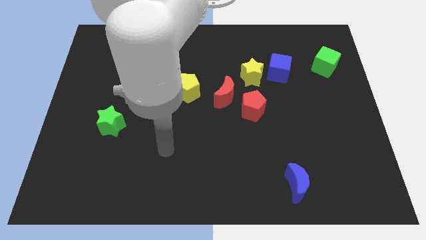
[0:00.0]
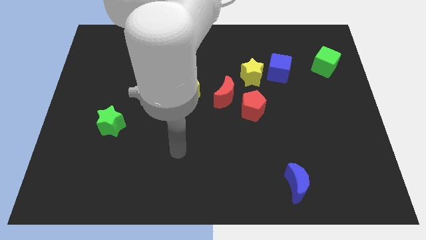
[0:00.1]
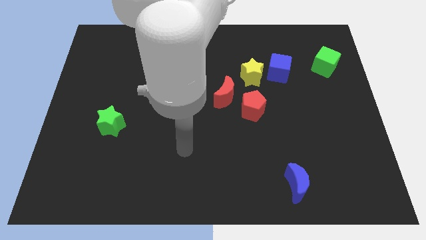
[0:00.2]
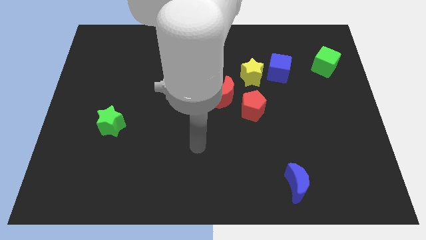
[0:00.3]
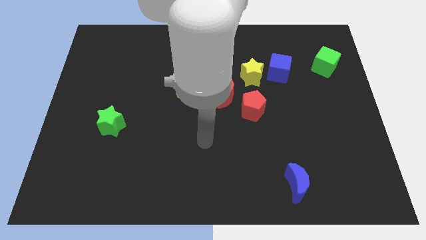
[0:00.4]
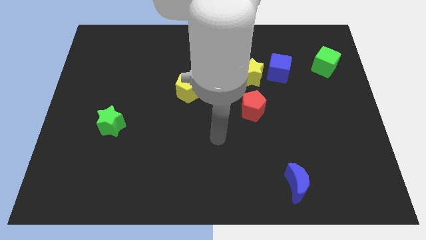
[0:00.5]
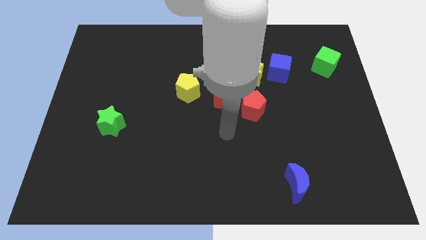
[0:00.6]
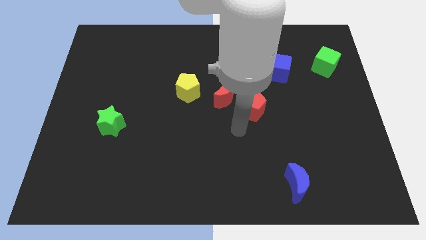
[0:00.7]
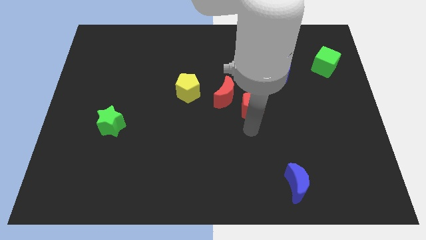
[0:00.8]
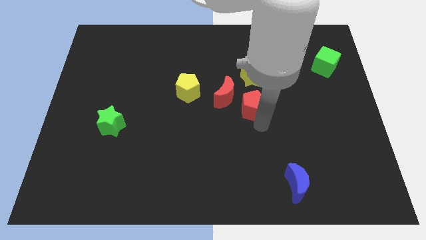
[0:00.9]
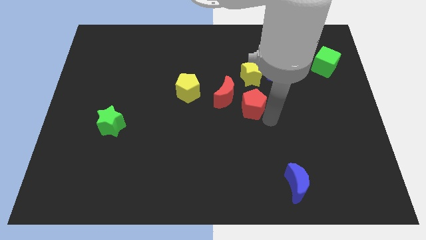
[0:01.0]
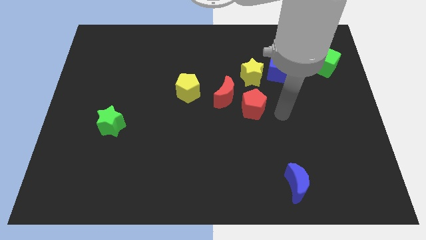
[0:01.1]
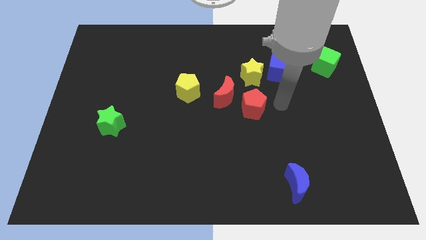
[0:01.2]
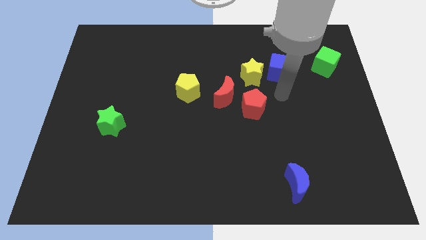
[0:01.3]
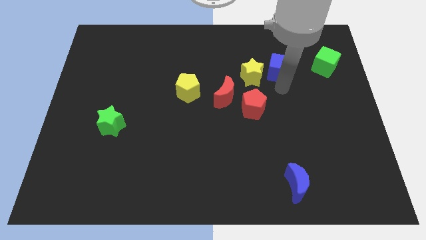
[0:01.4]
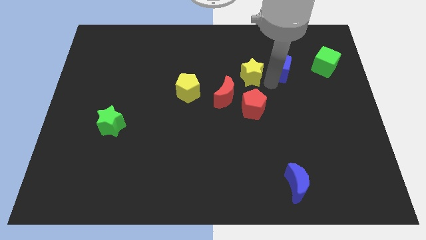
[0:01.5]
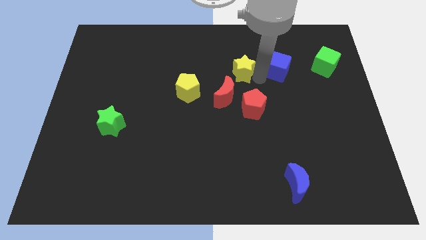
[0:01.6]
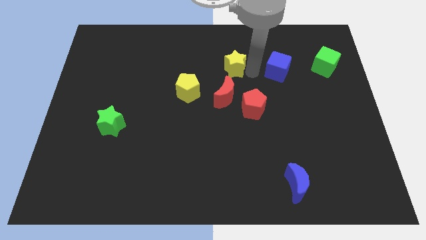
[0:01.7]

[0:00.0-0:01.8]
move the blue cube away from the yellow star

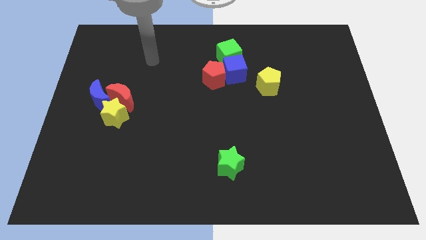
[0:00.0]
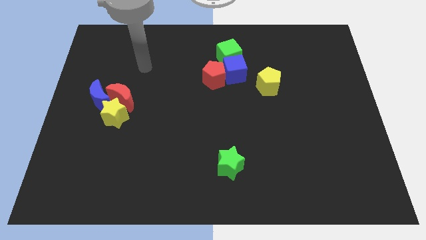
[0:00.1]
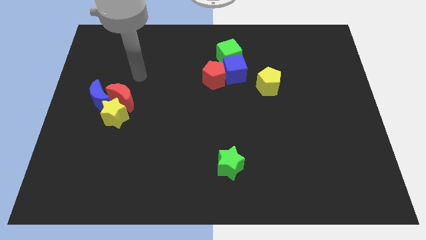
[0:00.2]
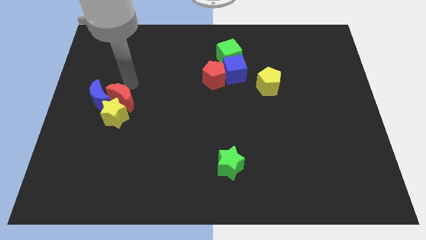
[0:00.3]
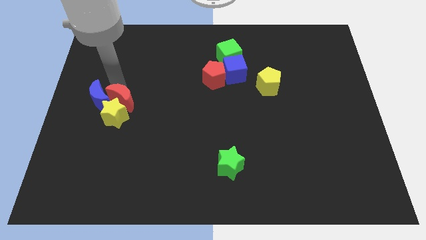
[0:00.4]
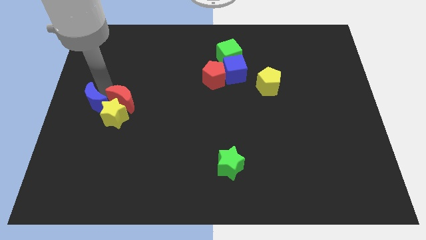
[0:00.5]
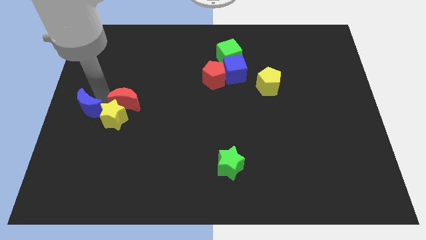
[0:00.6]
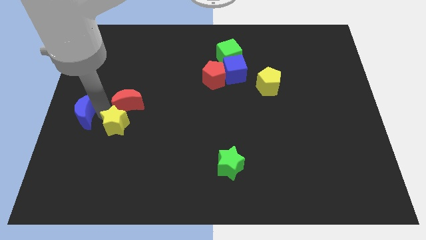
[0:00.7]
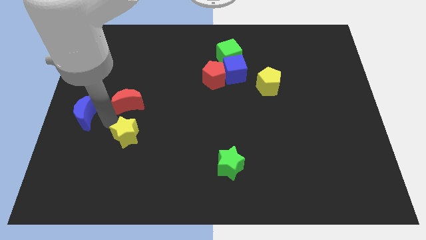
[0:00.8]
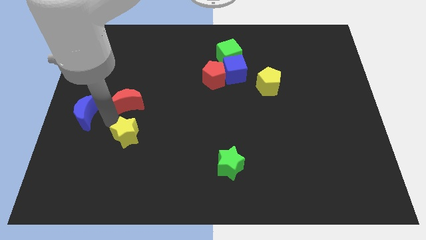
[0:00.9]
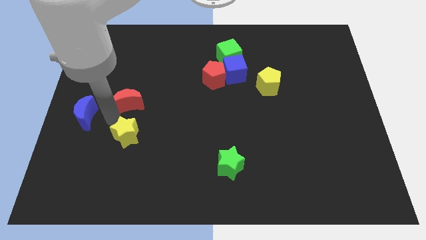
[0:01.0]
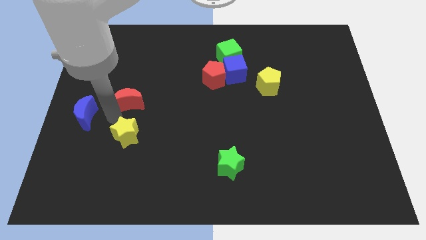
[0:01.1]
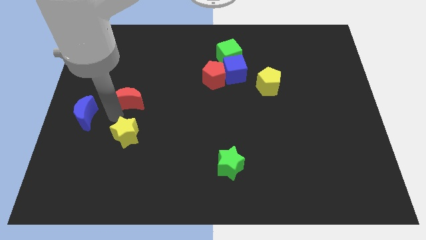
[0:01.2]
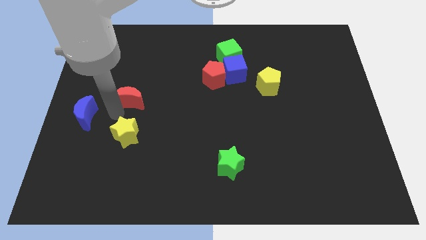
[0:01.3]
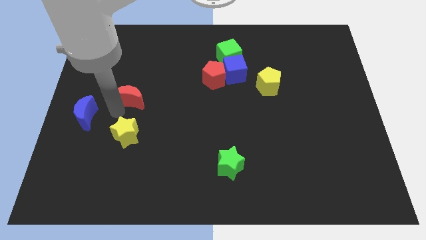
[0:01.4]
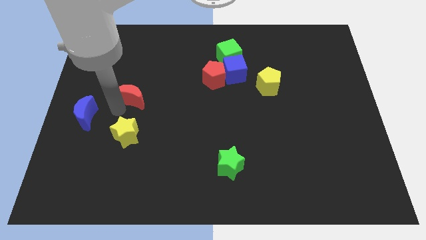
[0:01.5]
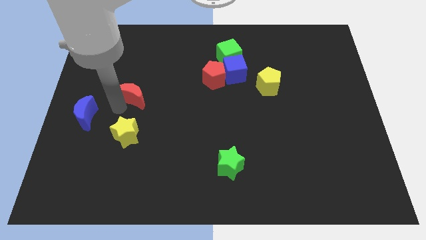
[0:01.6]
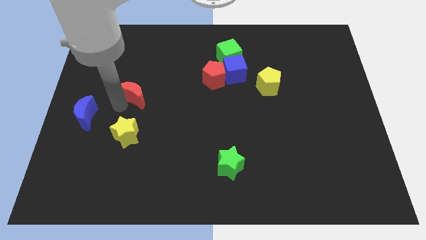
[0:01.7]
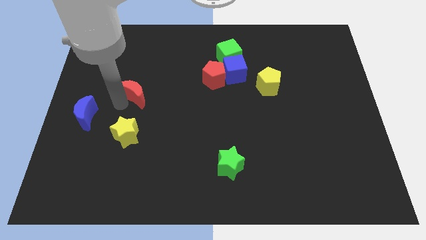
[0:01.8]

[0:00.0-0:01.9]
separate the red moon from the yellow star and blue moon

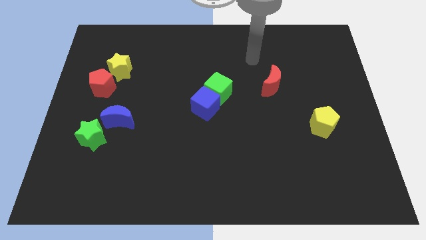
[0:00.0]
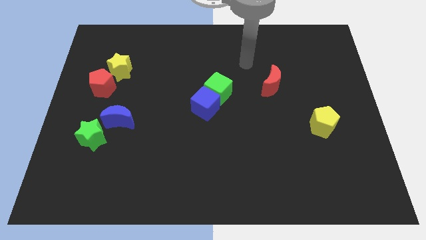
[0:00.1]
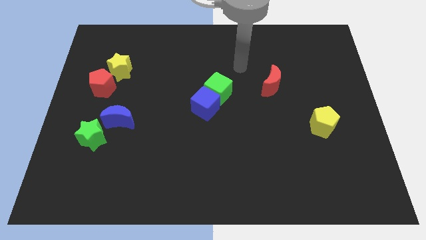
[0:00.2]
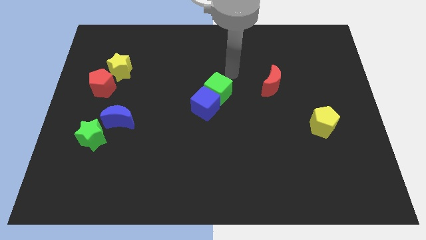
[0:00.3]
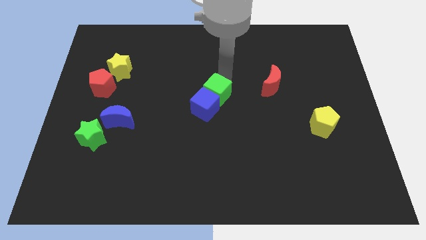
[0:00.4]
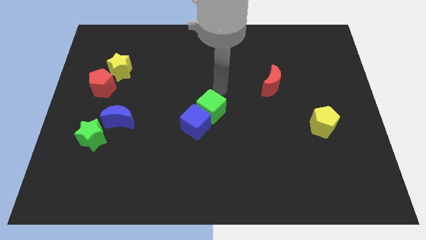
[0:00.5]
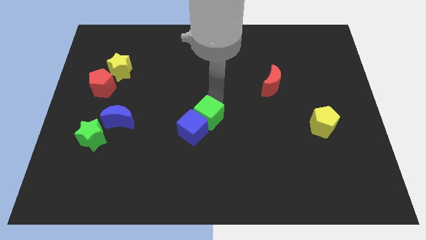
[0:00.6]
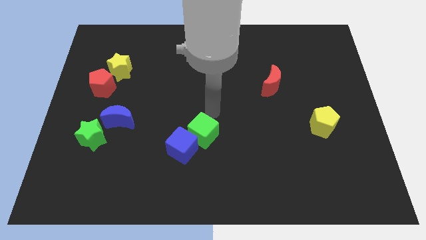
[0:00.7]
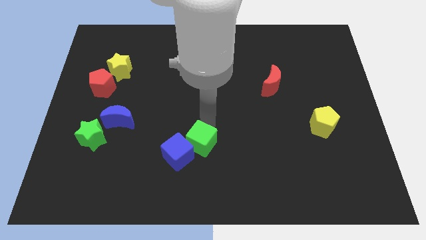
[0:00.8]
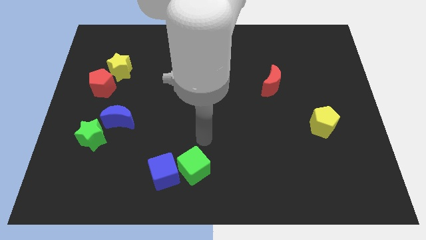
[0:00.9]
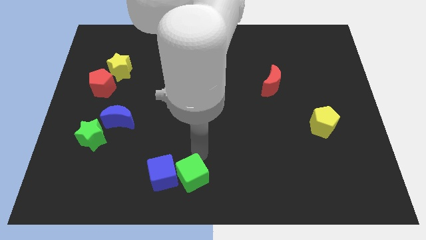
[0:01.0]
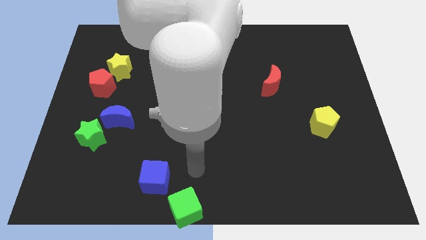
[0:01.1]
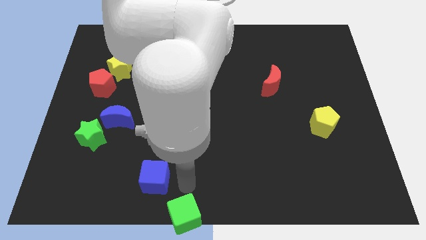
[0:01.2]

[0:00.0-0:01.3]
separate the blue cube from the green cube

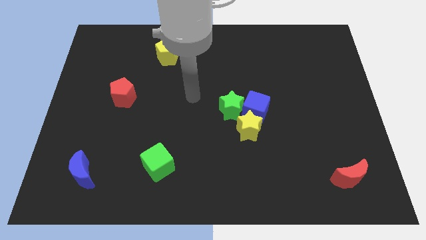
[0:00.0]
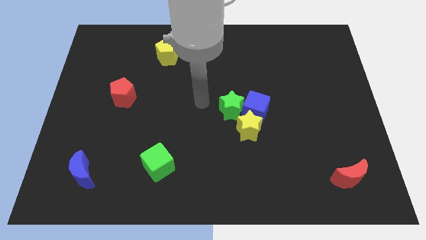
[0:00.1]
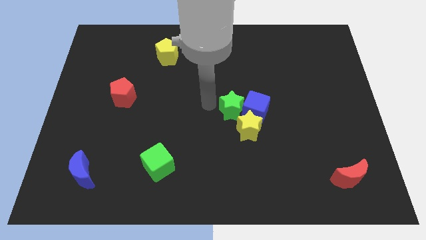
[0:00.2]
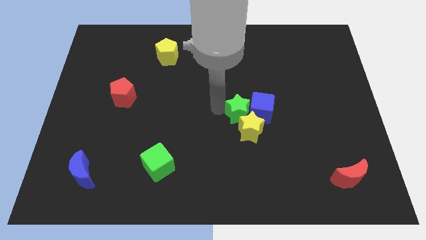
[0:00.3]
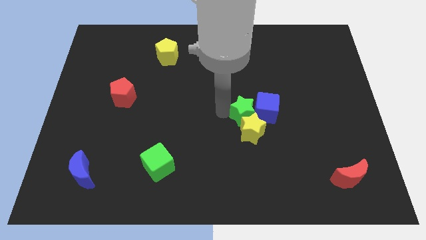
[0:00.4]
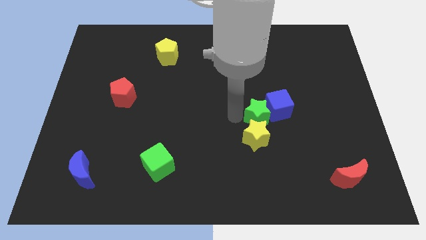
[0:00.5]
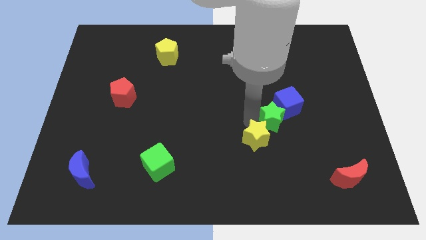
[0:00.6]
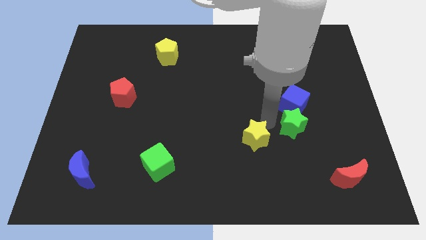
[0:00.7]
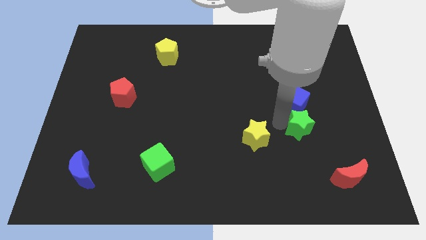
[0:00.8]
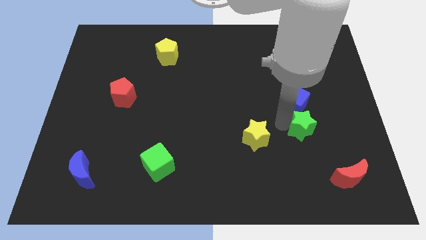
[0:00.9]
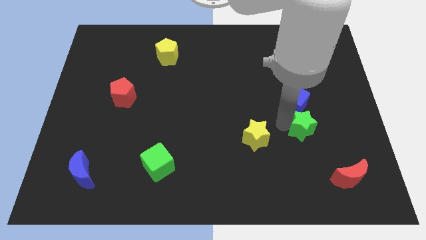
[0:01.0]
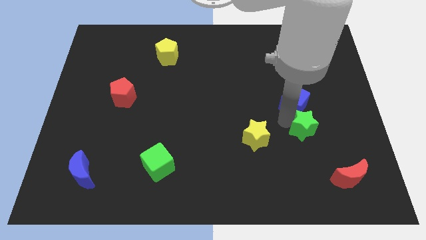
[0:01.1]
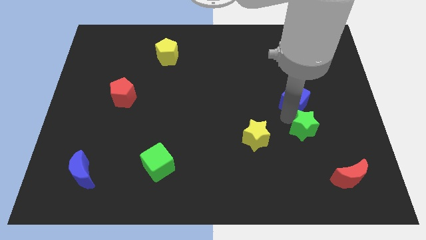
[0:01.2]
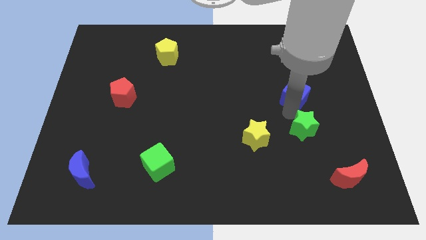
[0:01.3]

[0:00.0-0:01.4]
move the blue cube away from the yellow star and green star

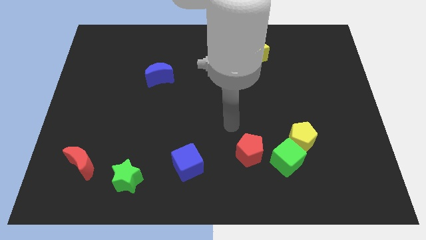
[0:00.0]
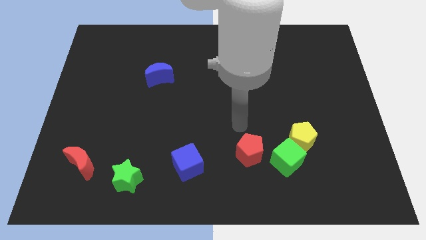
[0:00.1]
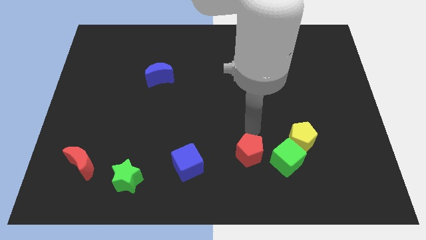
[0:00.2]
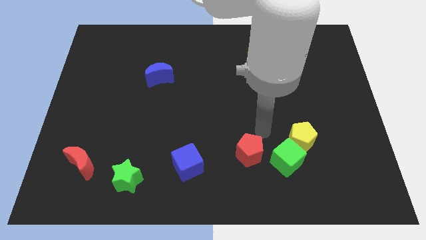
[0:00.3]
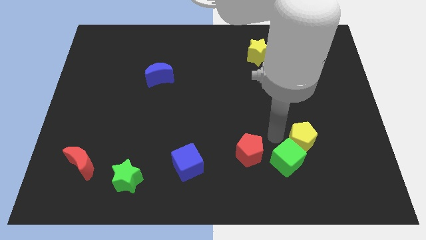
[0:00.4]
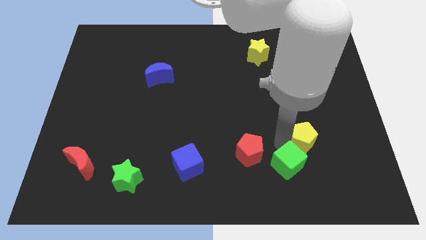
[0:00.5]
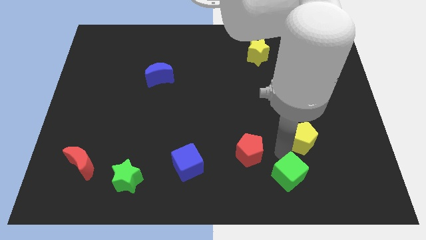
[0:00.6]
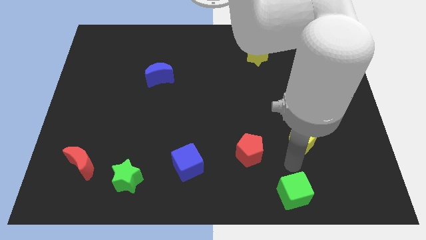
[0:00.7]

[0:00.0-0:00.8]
move the yellow pentagon away from the green cube

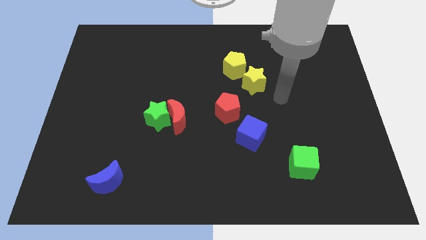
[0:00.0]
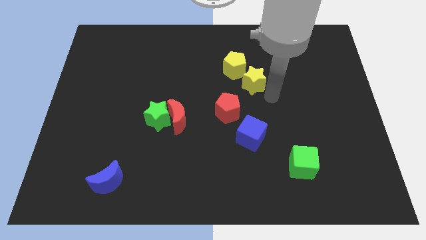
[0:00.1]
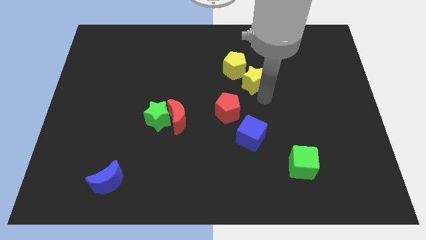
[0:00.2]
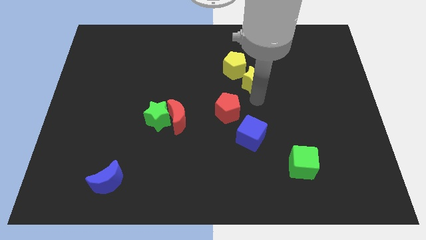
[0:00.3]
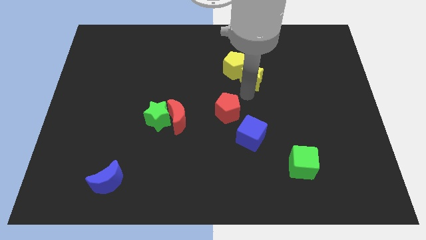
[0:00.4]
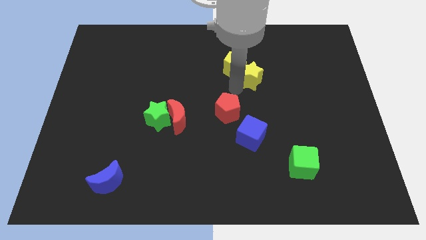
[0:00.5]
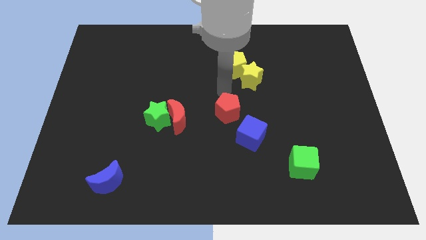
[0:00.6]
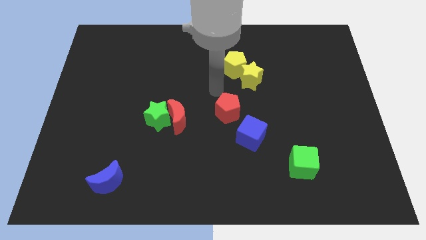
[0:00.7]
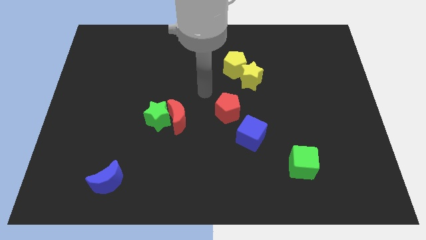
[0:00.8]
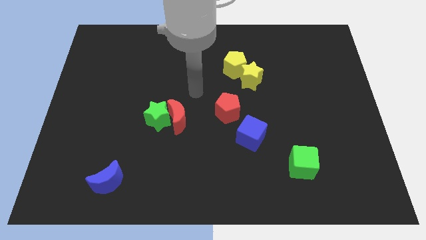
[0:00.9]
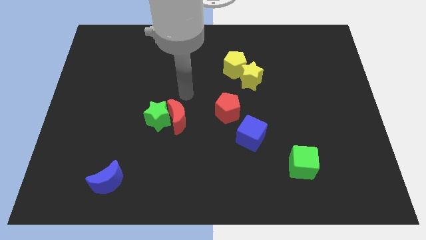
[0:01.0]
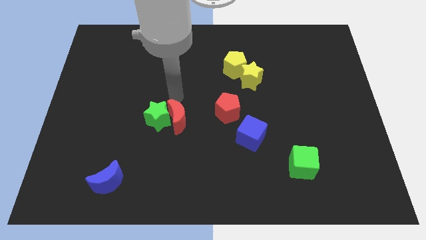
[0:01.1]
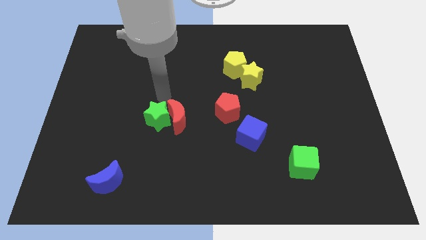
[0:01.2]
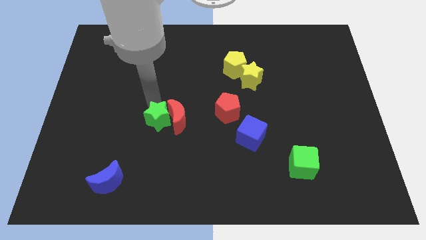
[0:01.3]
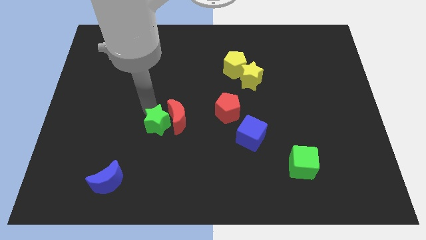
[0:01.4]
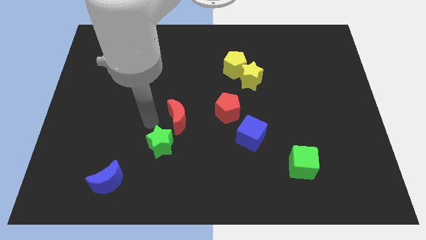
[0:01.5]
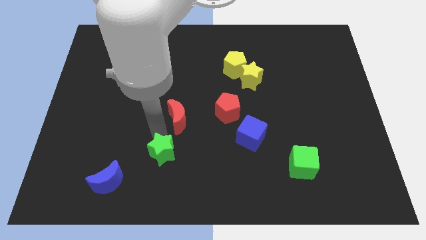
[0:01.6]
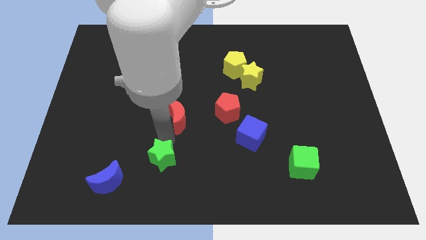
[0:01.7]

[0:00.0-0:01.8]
pull the red moon apart from the green star

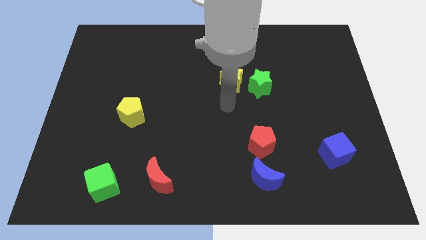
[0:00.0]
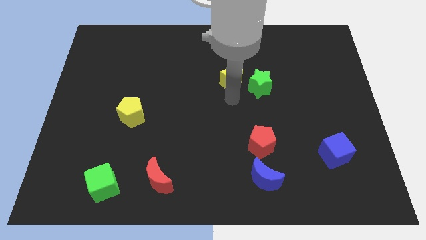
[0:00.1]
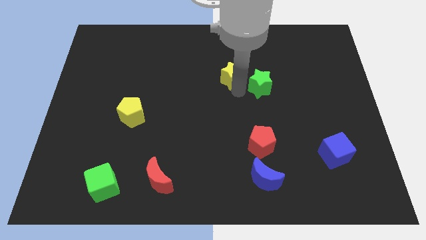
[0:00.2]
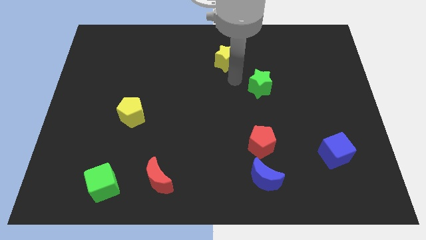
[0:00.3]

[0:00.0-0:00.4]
separate the green star from the yellow star

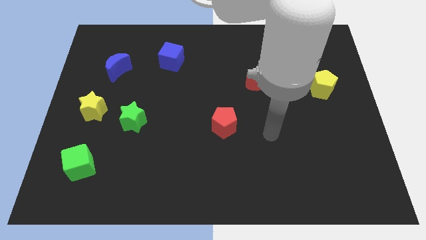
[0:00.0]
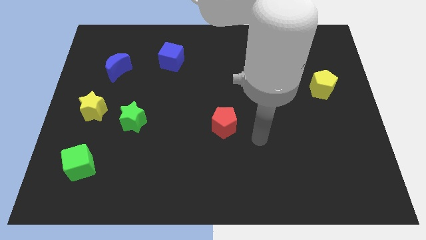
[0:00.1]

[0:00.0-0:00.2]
pull the green star apart from the yellow star
